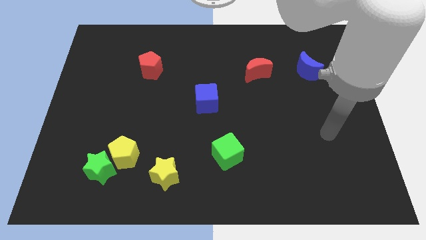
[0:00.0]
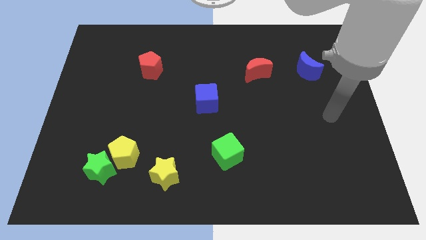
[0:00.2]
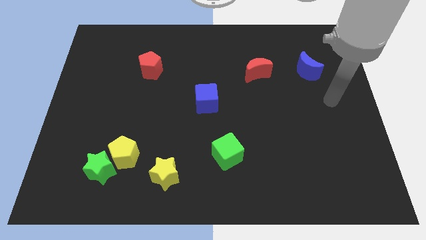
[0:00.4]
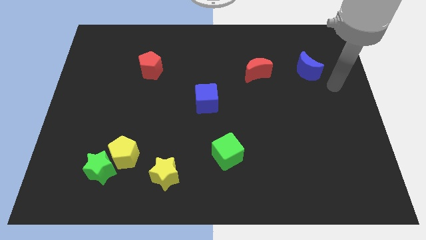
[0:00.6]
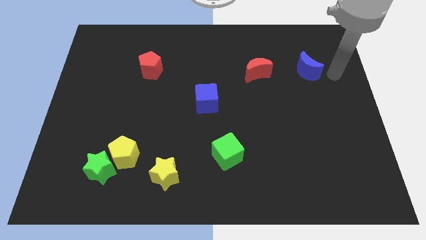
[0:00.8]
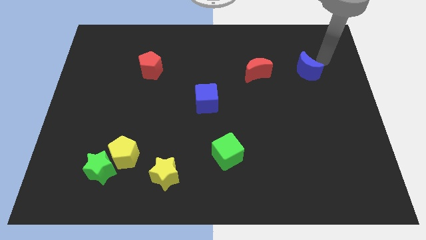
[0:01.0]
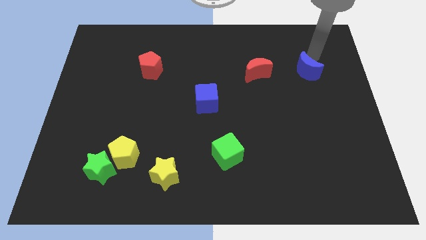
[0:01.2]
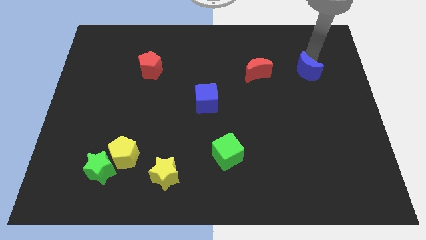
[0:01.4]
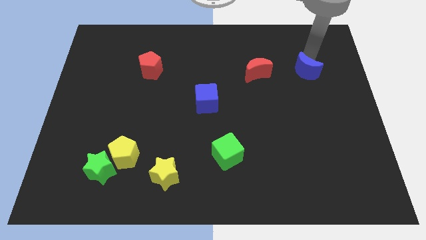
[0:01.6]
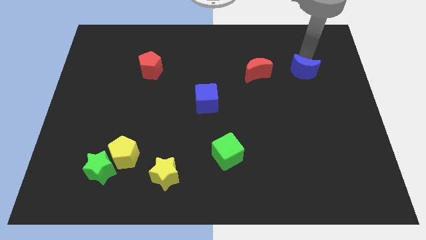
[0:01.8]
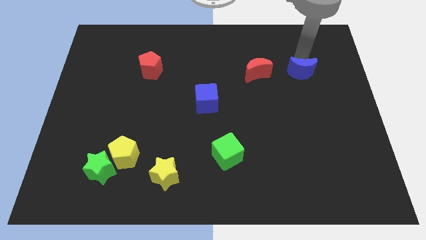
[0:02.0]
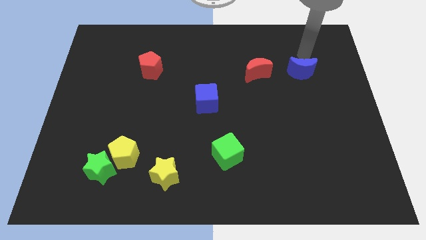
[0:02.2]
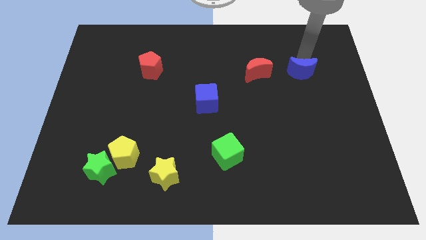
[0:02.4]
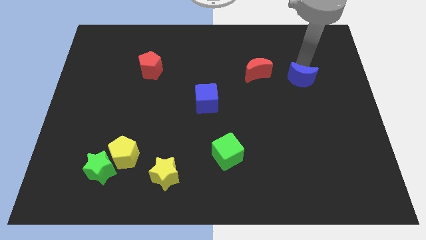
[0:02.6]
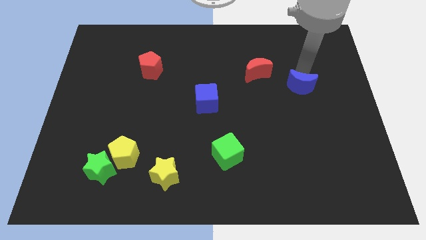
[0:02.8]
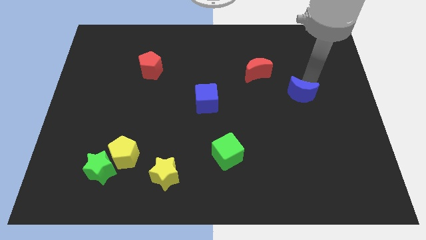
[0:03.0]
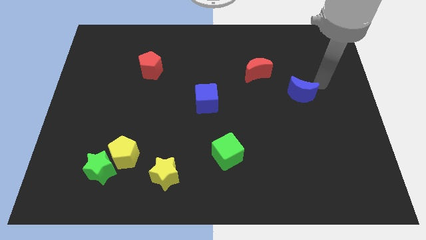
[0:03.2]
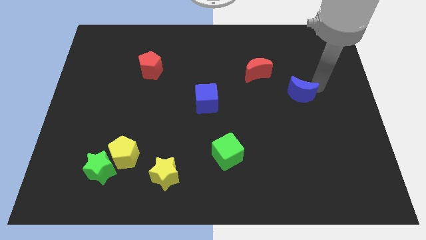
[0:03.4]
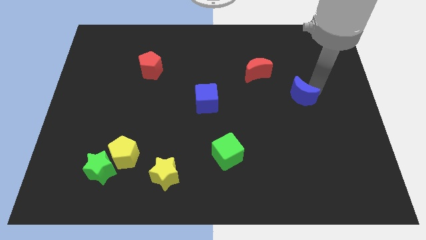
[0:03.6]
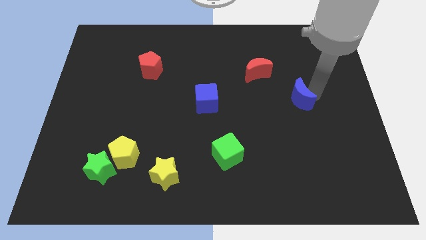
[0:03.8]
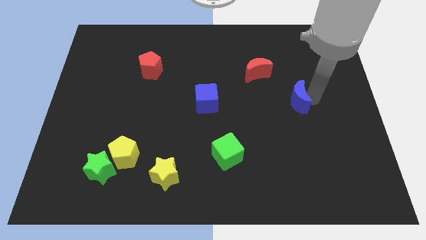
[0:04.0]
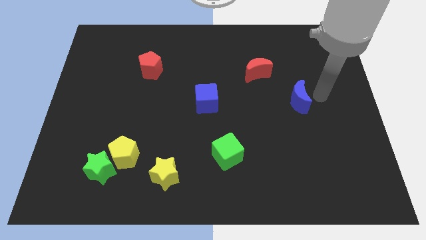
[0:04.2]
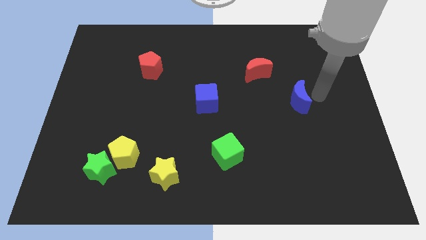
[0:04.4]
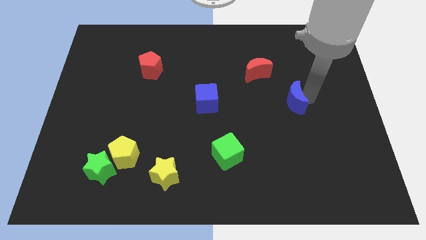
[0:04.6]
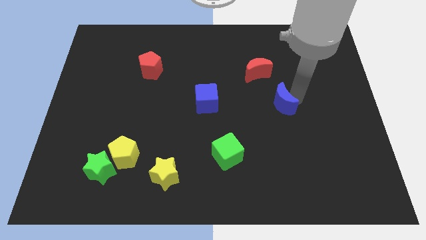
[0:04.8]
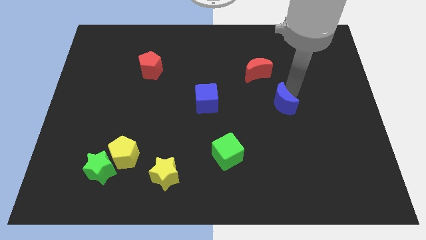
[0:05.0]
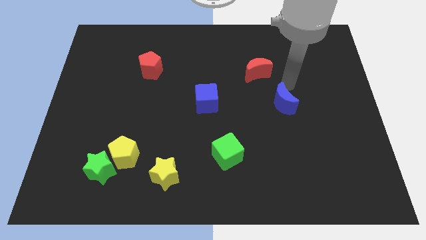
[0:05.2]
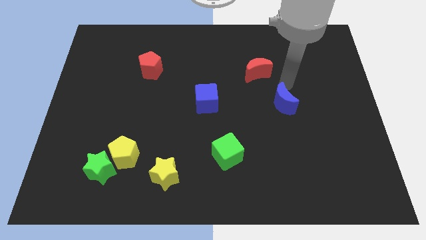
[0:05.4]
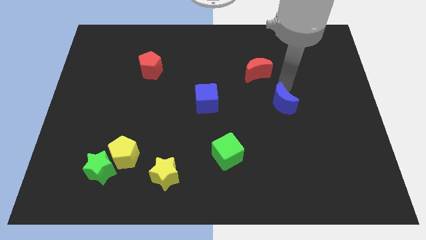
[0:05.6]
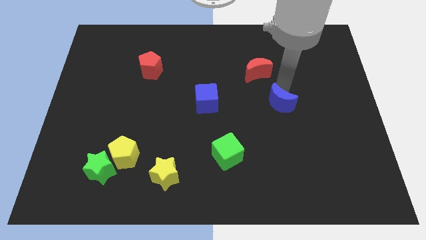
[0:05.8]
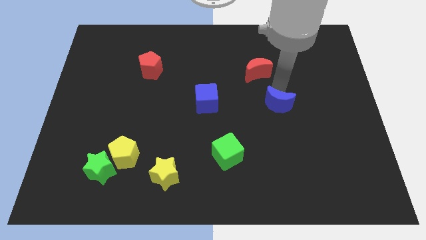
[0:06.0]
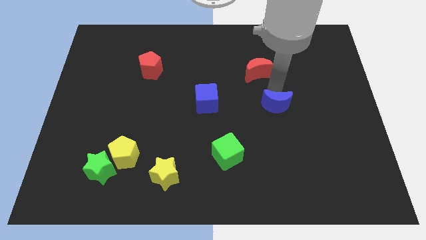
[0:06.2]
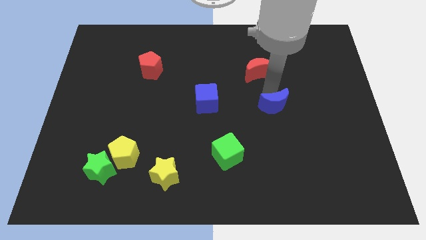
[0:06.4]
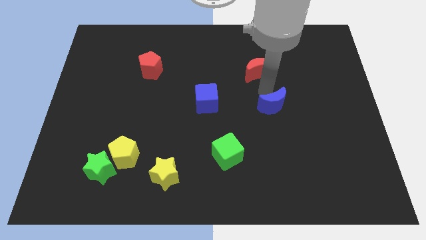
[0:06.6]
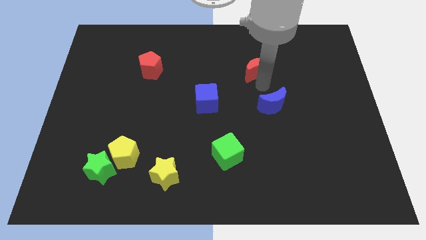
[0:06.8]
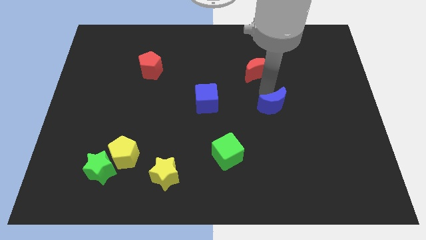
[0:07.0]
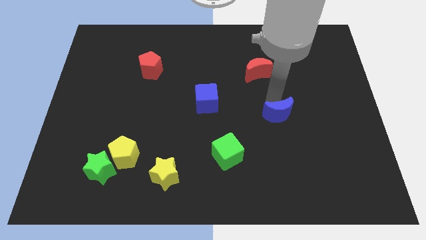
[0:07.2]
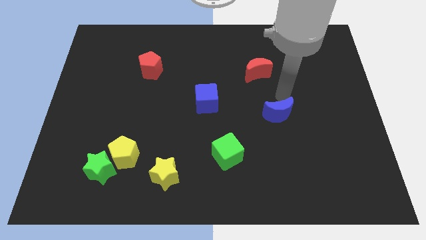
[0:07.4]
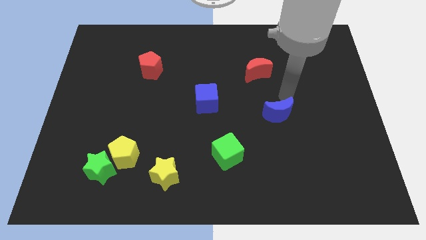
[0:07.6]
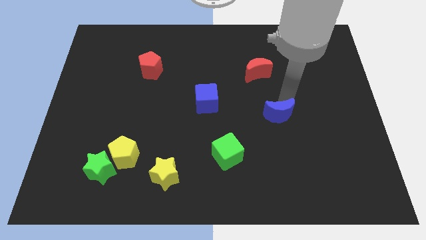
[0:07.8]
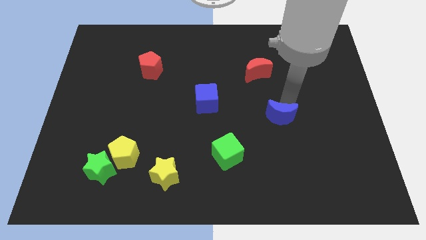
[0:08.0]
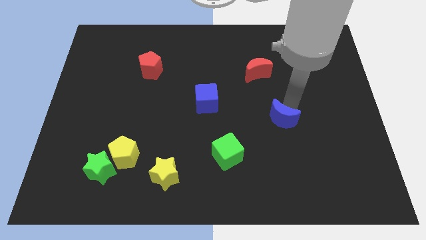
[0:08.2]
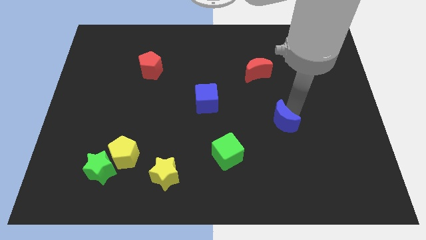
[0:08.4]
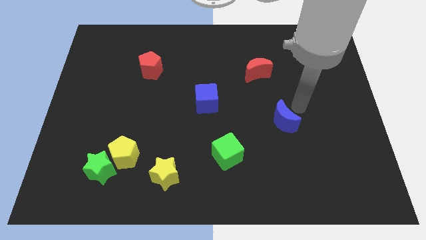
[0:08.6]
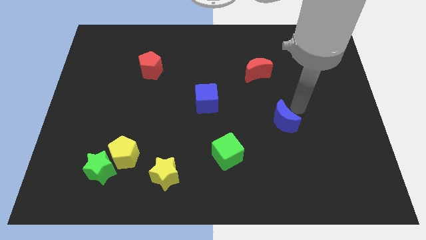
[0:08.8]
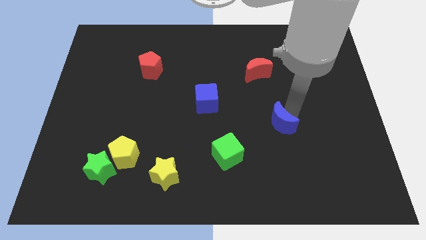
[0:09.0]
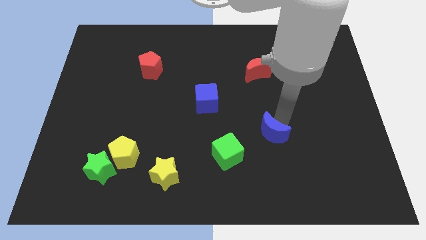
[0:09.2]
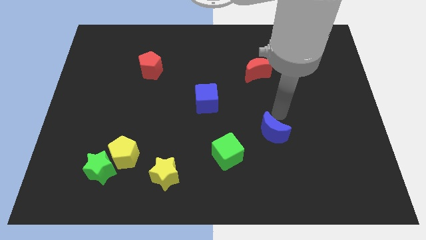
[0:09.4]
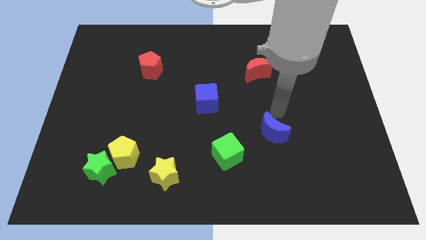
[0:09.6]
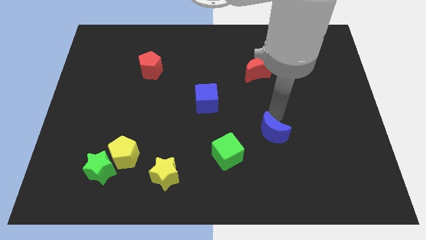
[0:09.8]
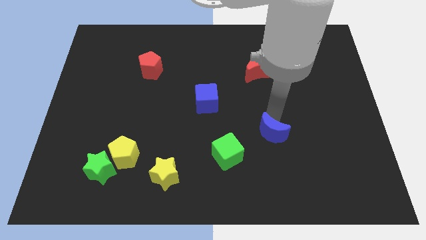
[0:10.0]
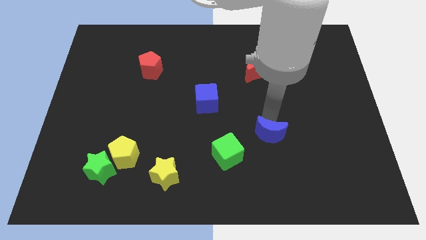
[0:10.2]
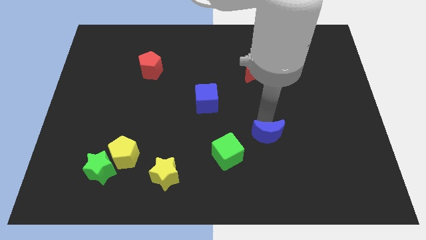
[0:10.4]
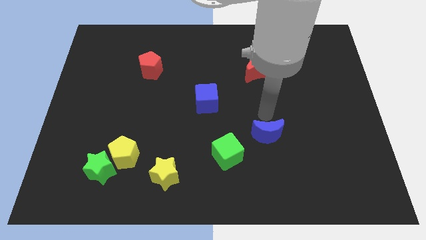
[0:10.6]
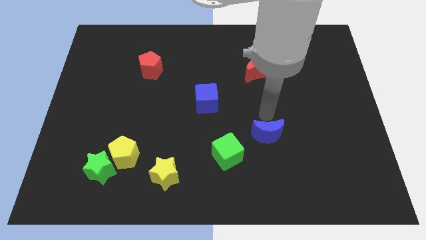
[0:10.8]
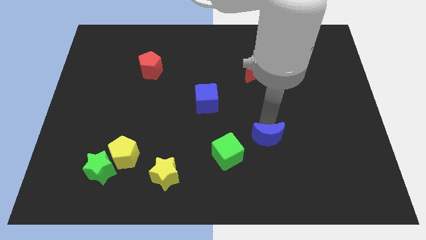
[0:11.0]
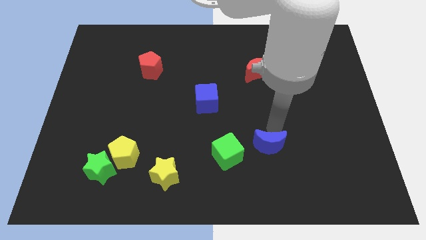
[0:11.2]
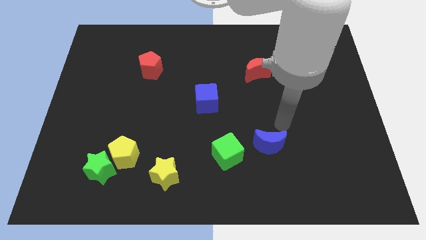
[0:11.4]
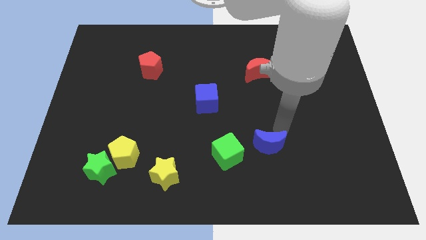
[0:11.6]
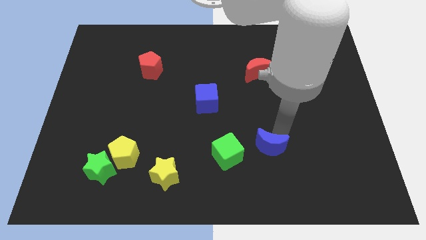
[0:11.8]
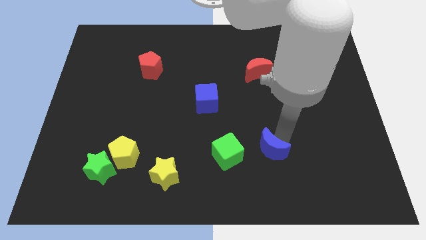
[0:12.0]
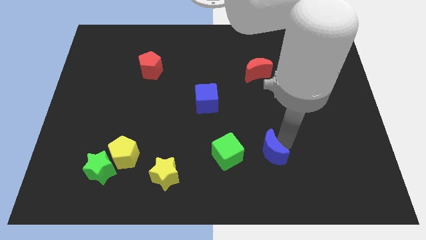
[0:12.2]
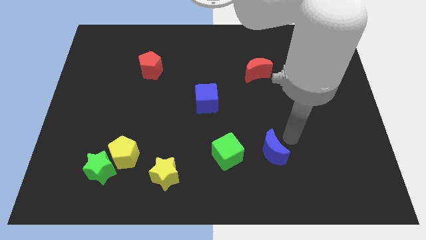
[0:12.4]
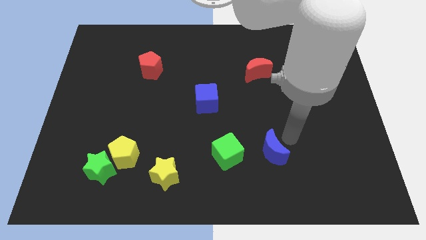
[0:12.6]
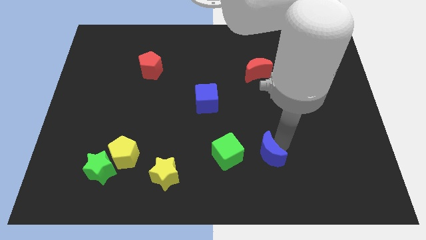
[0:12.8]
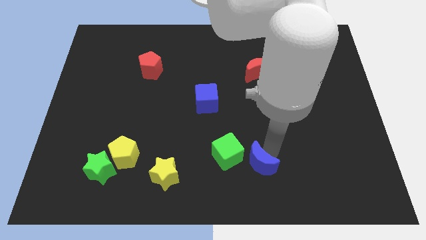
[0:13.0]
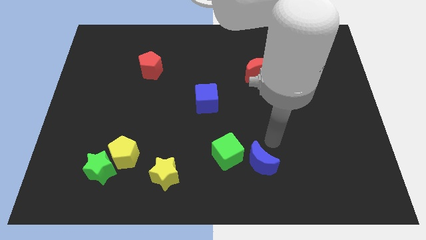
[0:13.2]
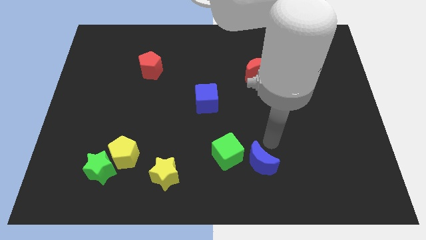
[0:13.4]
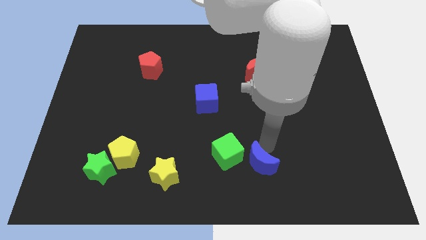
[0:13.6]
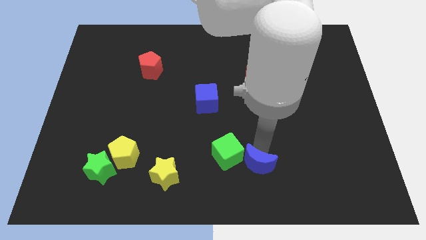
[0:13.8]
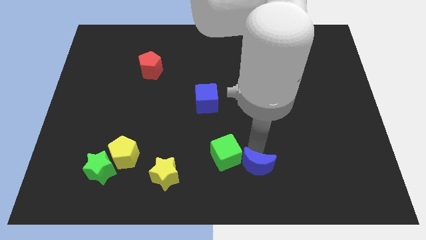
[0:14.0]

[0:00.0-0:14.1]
put the blue moon to the bottom side

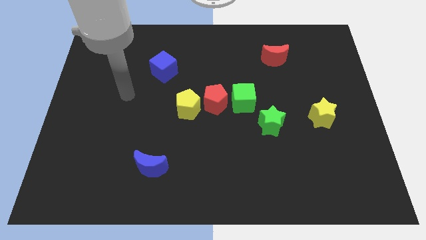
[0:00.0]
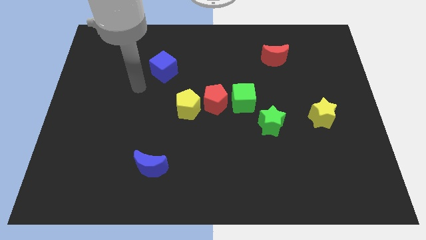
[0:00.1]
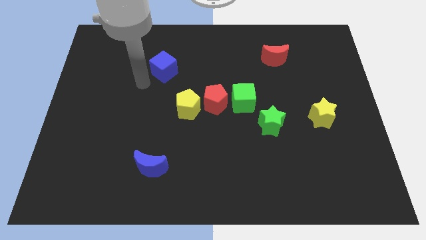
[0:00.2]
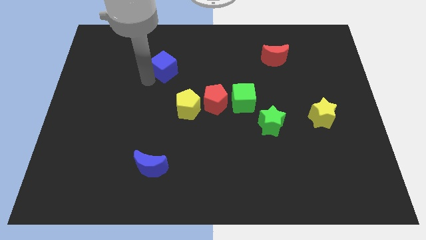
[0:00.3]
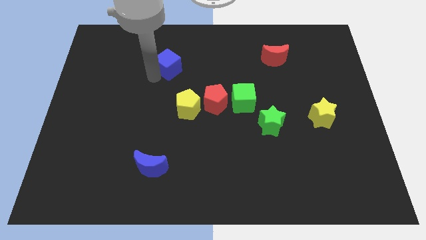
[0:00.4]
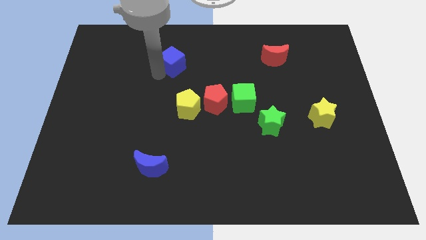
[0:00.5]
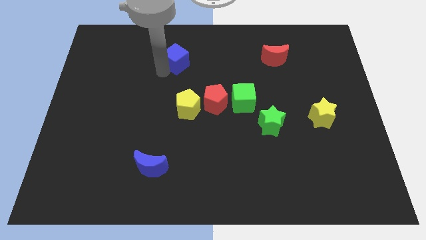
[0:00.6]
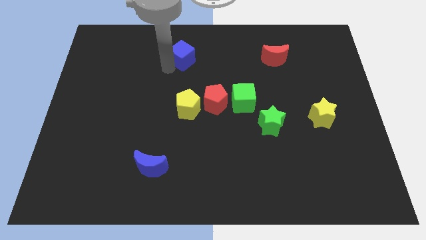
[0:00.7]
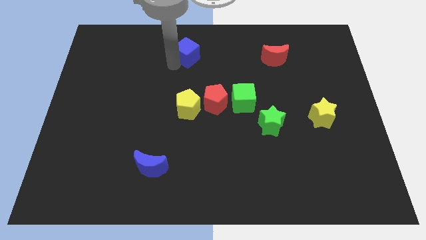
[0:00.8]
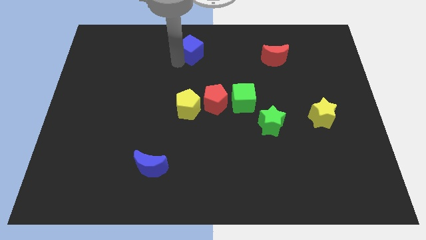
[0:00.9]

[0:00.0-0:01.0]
put the blue cube to the towards your base
